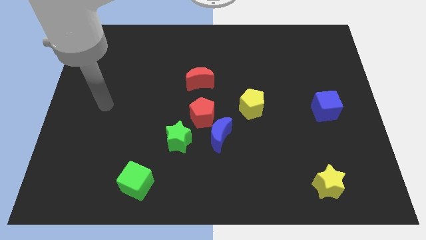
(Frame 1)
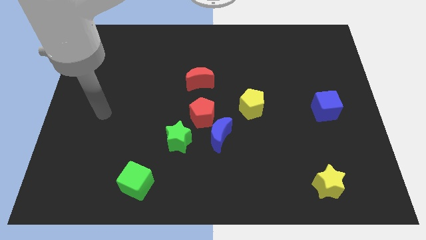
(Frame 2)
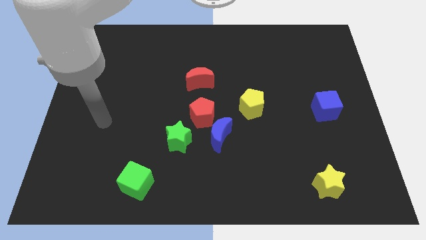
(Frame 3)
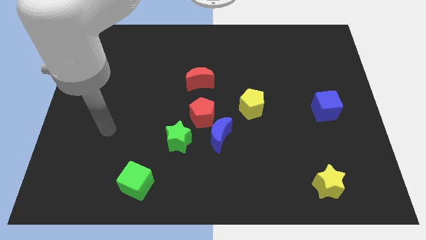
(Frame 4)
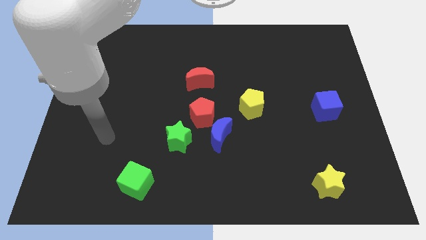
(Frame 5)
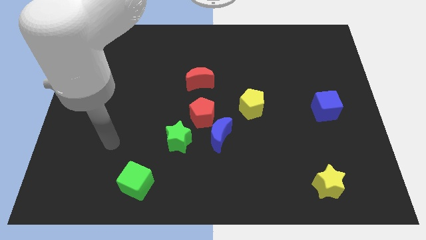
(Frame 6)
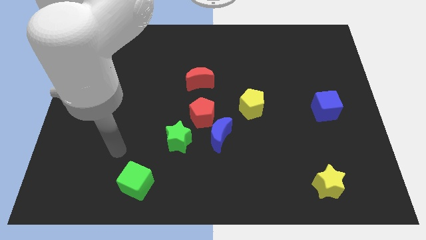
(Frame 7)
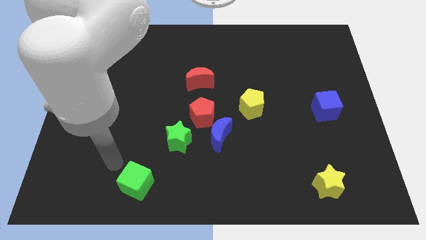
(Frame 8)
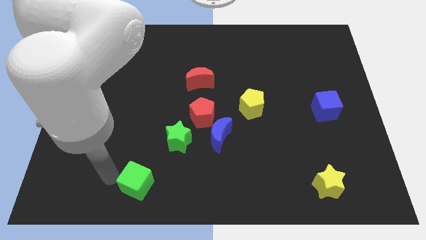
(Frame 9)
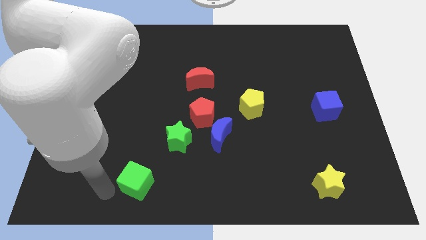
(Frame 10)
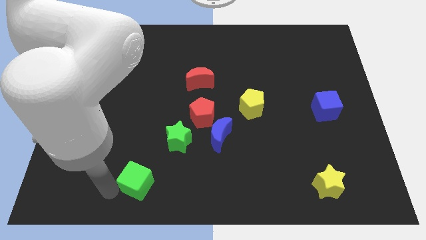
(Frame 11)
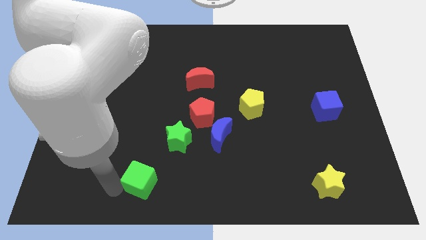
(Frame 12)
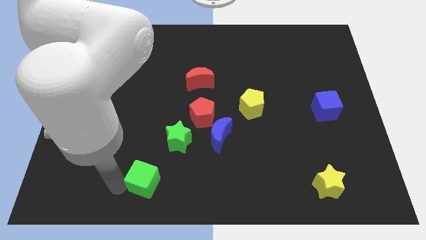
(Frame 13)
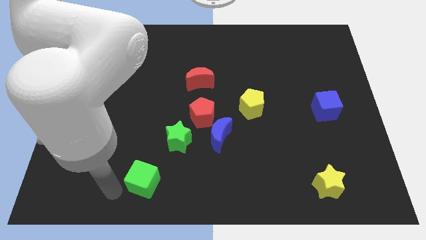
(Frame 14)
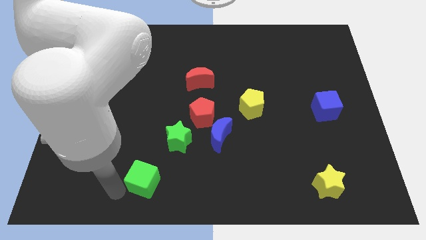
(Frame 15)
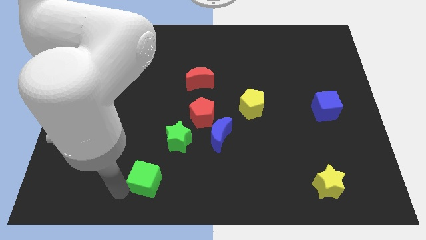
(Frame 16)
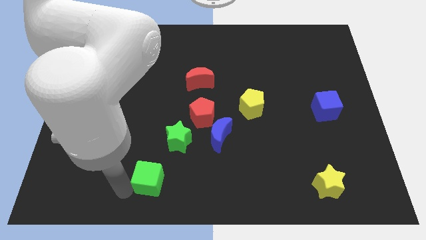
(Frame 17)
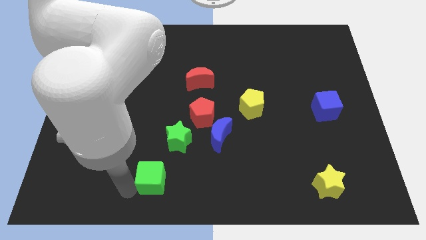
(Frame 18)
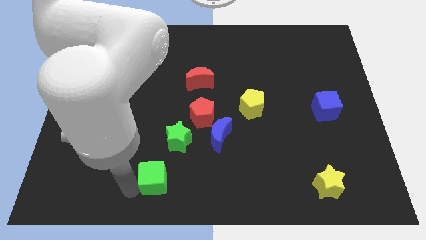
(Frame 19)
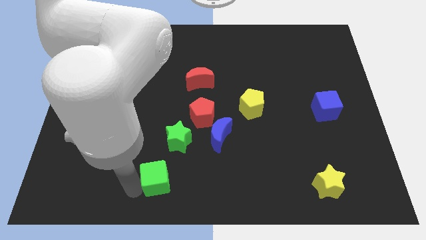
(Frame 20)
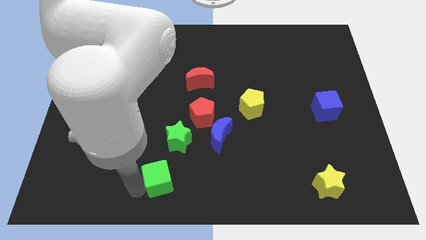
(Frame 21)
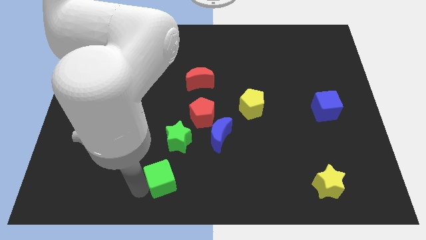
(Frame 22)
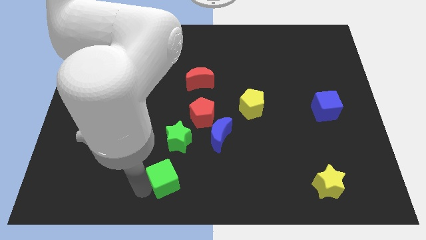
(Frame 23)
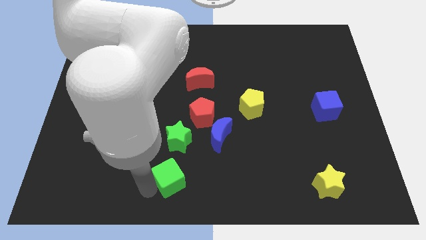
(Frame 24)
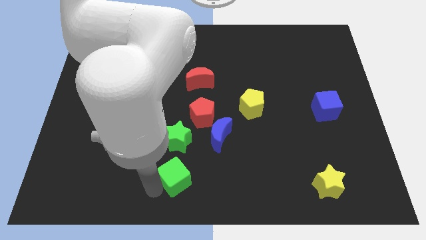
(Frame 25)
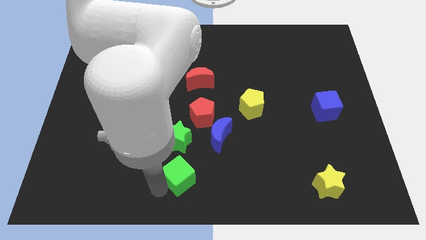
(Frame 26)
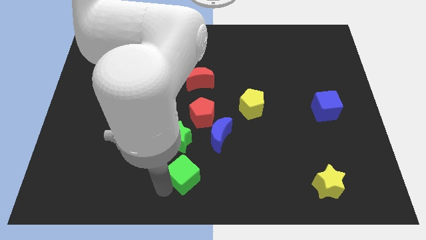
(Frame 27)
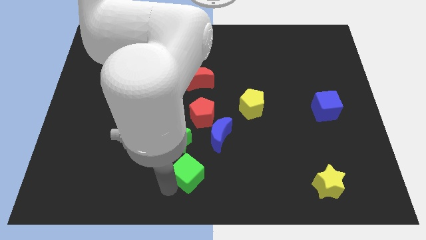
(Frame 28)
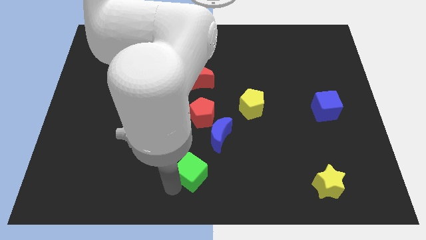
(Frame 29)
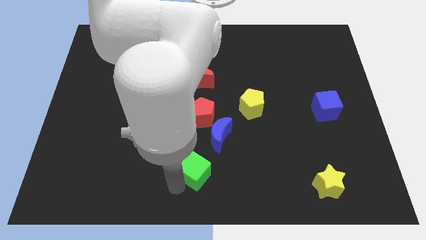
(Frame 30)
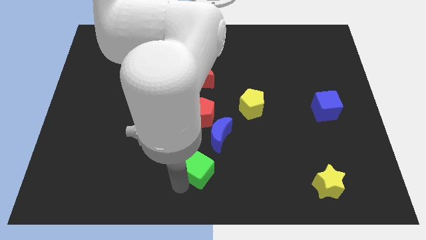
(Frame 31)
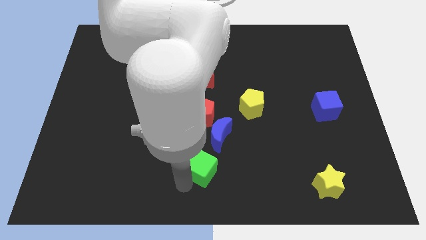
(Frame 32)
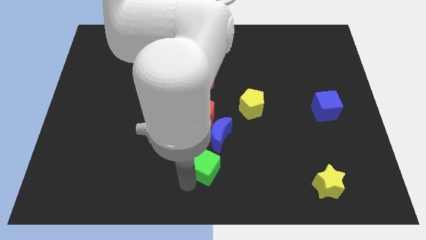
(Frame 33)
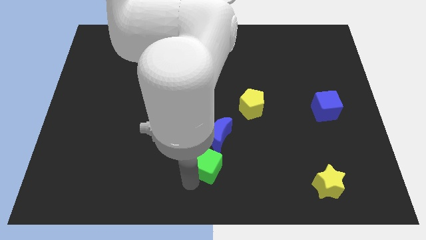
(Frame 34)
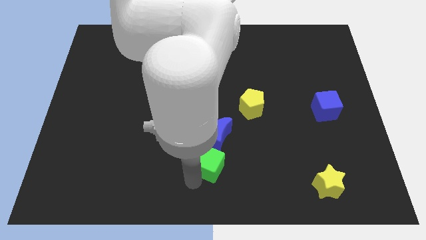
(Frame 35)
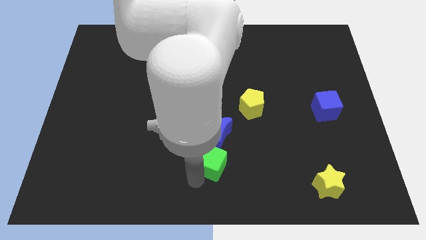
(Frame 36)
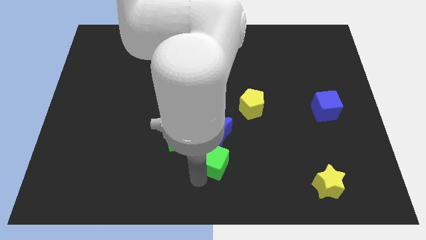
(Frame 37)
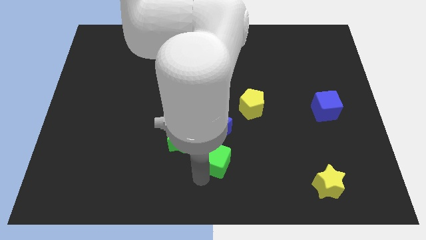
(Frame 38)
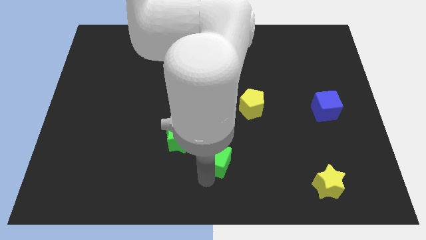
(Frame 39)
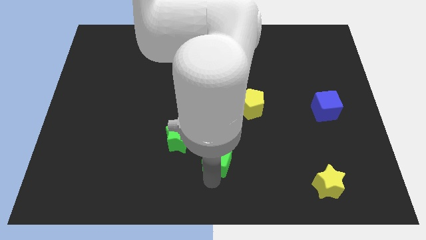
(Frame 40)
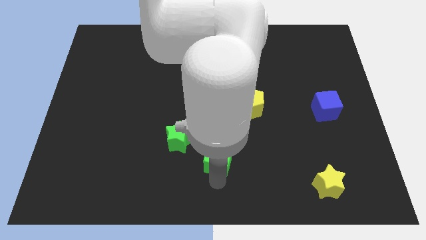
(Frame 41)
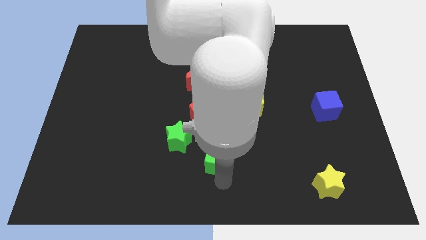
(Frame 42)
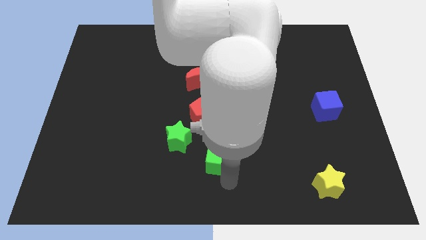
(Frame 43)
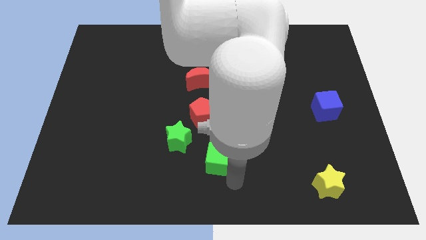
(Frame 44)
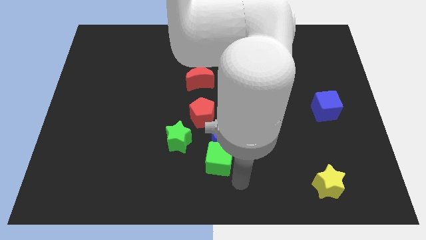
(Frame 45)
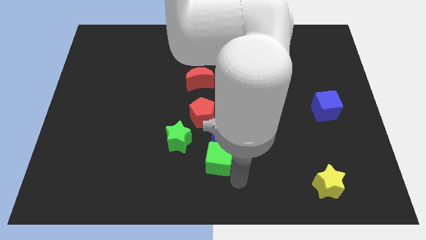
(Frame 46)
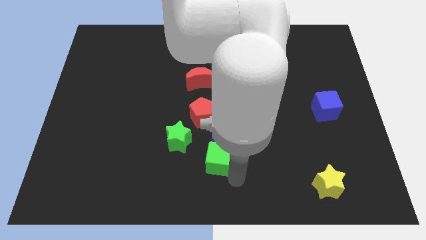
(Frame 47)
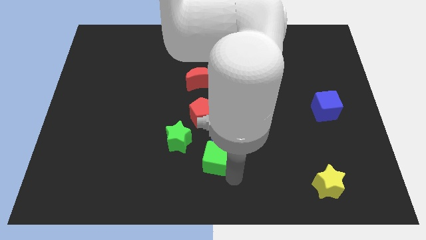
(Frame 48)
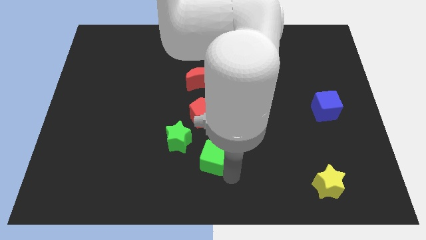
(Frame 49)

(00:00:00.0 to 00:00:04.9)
slide the green cube towards the blue moon

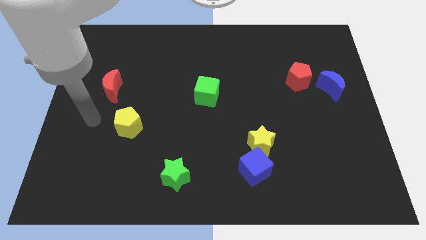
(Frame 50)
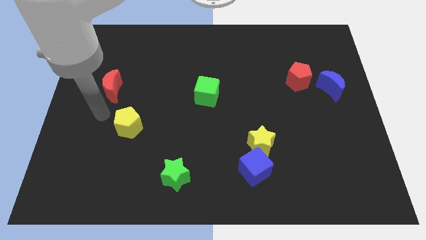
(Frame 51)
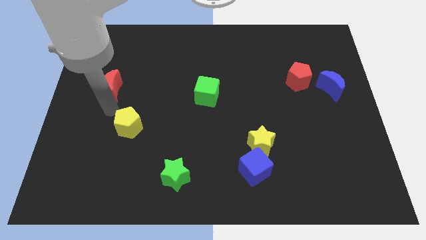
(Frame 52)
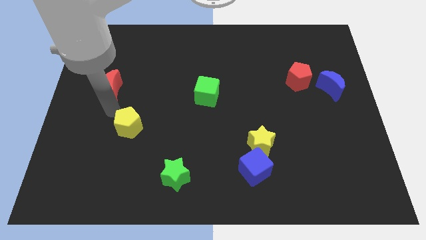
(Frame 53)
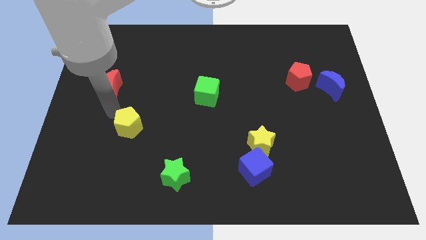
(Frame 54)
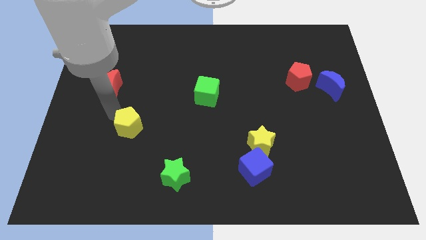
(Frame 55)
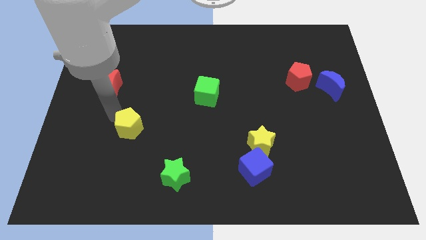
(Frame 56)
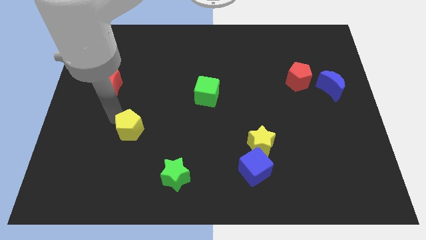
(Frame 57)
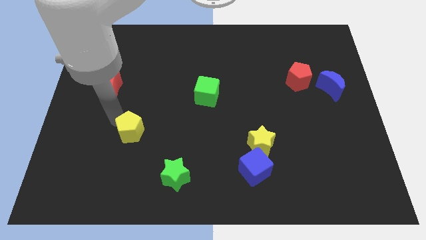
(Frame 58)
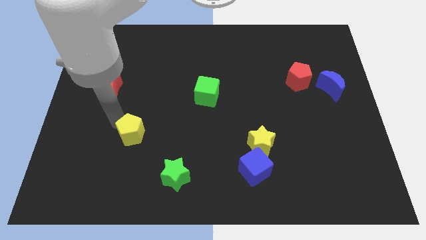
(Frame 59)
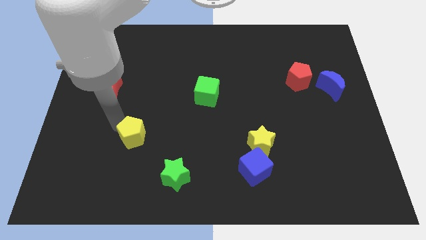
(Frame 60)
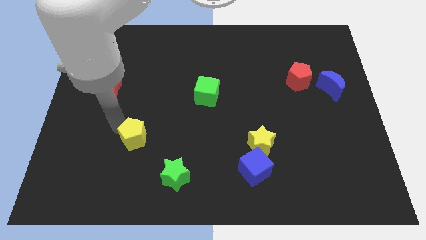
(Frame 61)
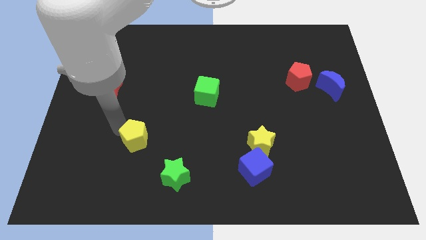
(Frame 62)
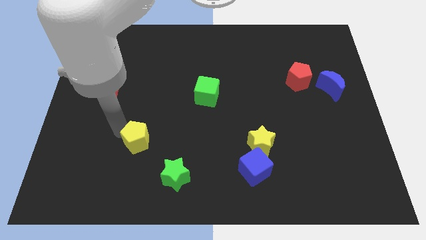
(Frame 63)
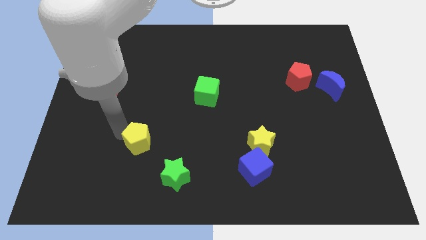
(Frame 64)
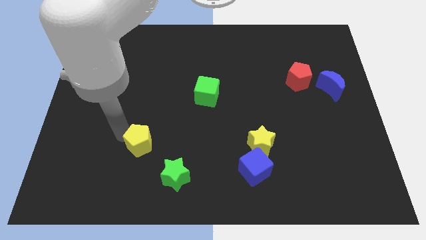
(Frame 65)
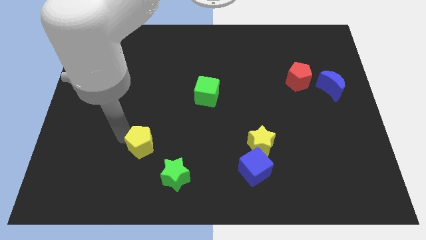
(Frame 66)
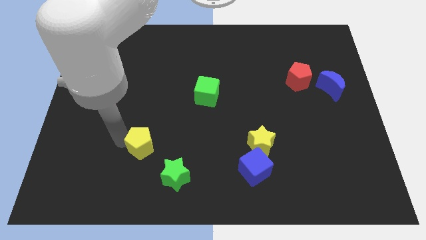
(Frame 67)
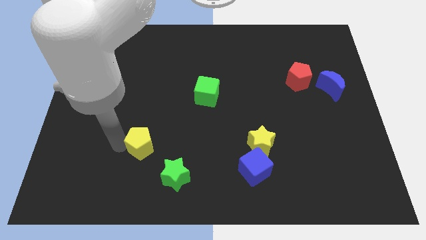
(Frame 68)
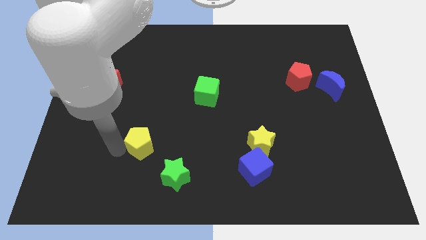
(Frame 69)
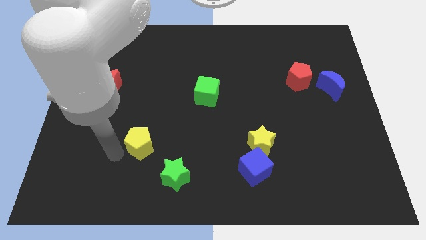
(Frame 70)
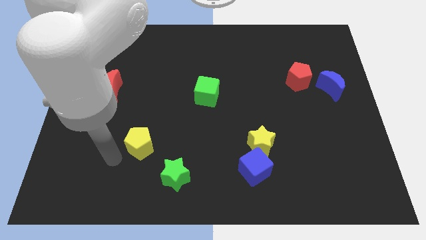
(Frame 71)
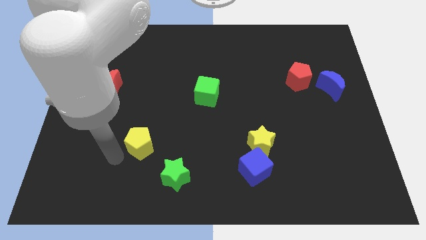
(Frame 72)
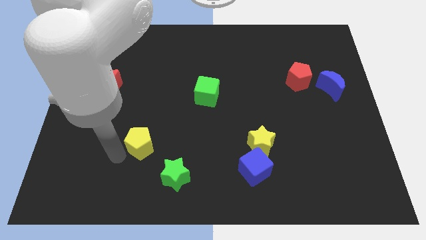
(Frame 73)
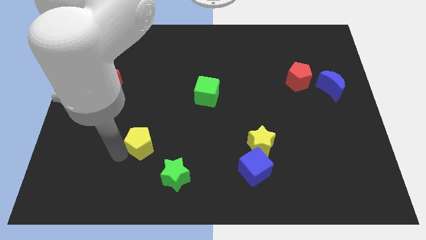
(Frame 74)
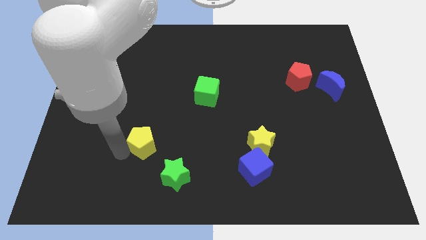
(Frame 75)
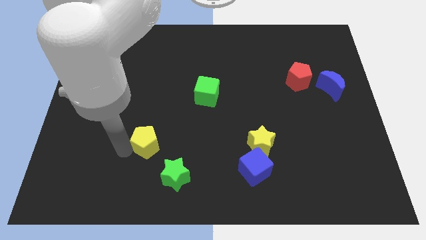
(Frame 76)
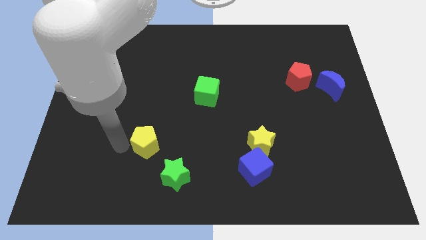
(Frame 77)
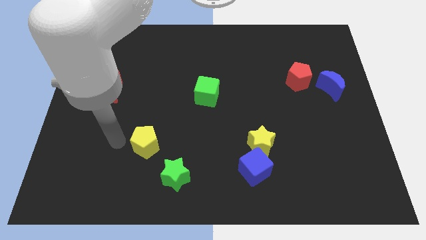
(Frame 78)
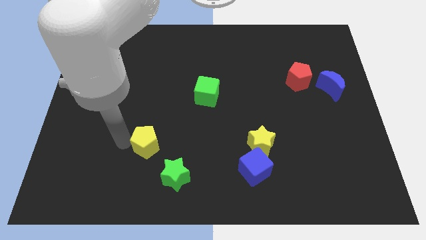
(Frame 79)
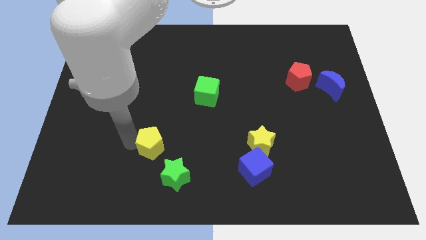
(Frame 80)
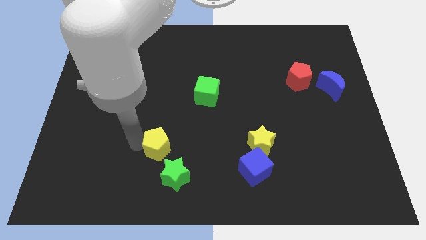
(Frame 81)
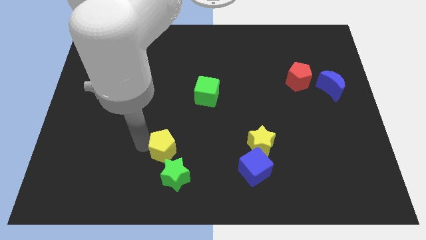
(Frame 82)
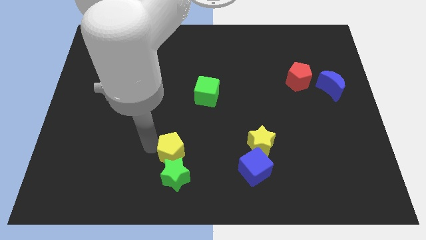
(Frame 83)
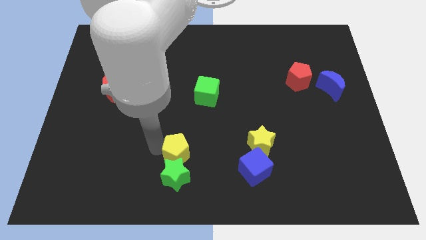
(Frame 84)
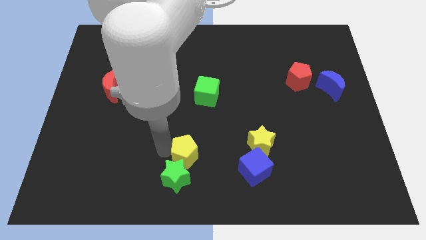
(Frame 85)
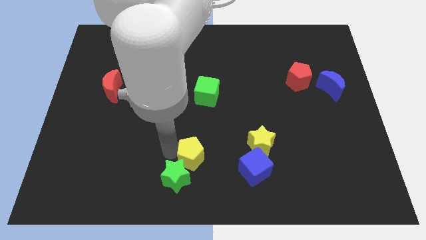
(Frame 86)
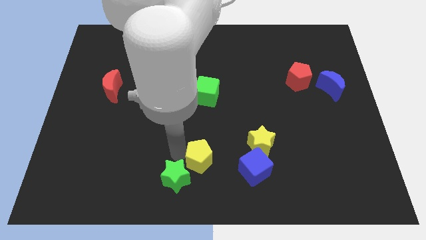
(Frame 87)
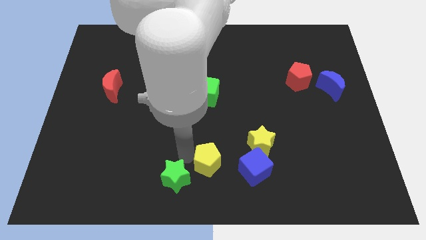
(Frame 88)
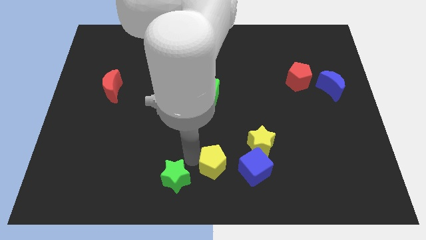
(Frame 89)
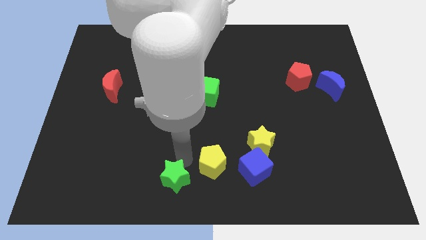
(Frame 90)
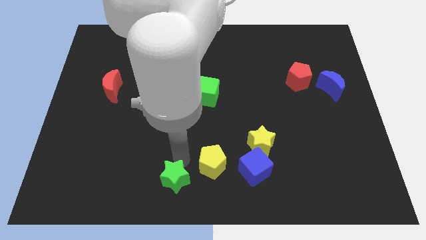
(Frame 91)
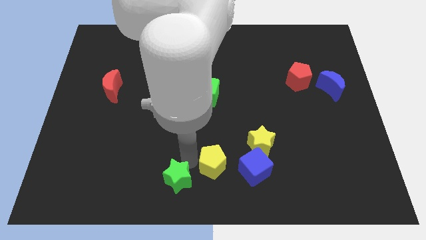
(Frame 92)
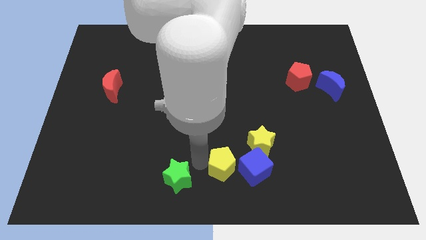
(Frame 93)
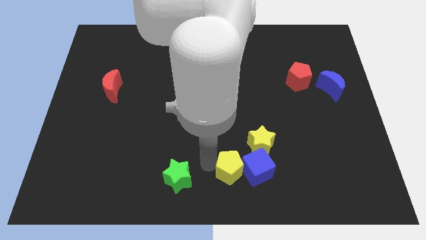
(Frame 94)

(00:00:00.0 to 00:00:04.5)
put the yellow pentagon next to the blue cube
